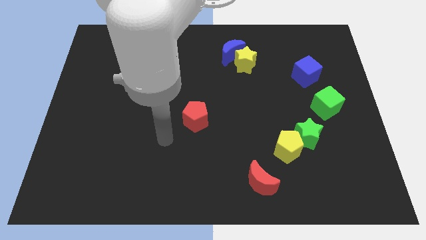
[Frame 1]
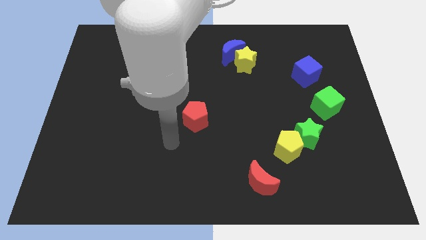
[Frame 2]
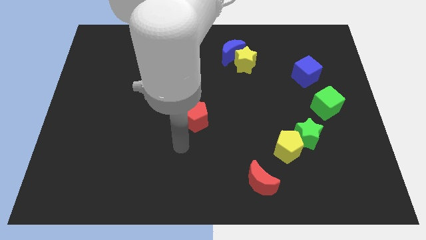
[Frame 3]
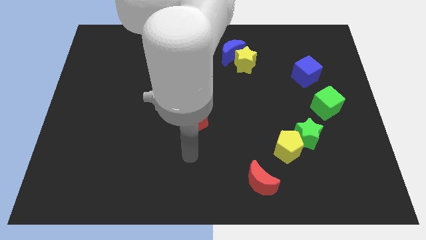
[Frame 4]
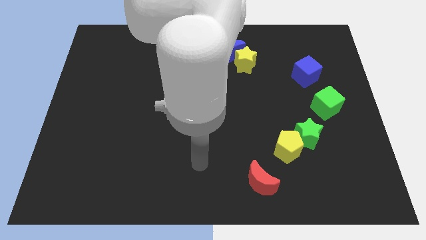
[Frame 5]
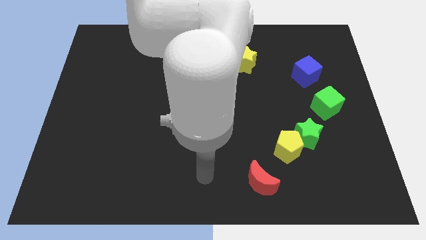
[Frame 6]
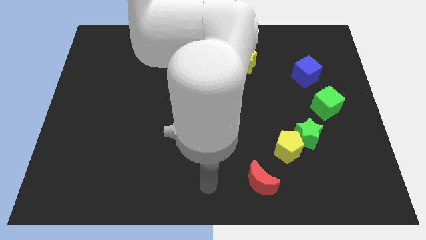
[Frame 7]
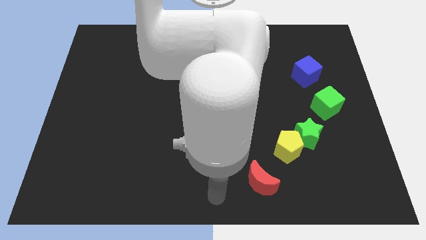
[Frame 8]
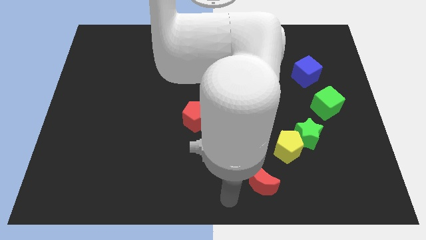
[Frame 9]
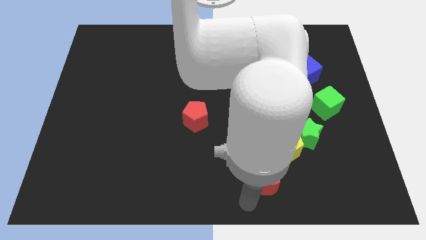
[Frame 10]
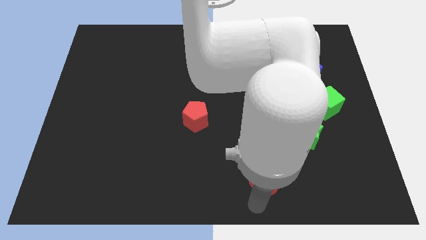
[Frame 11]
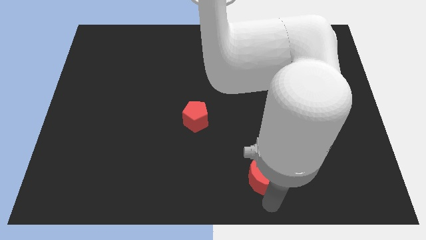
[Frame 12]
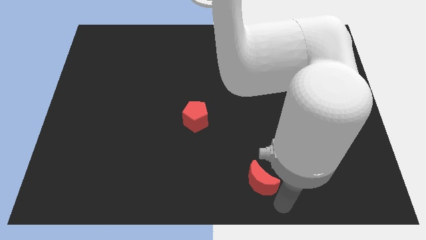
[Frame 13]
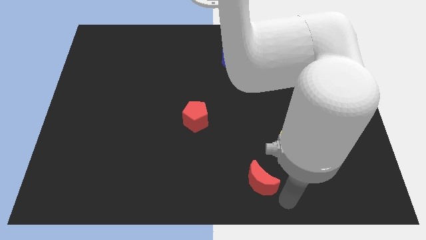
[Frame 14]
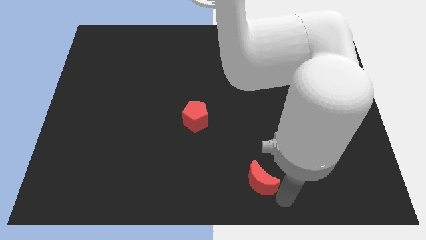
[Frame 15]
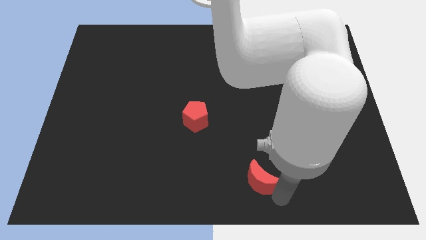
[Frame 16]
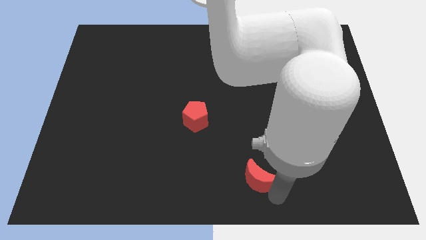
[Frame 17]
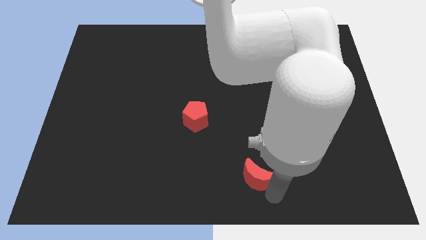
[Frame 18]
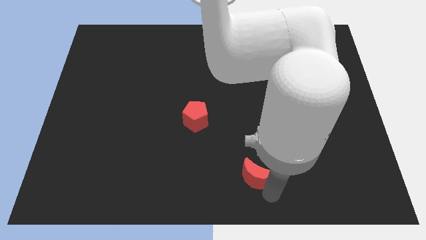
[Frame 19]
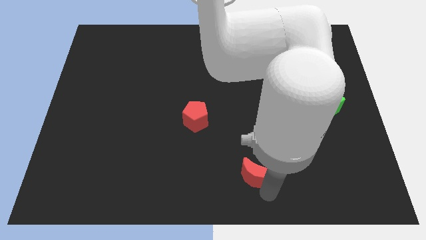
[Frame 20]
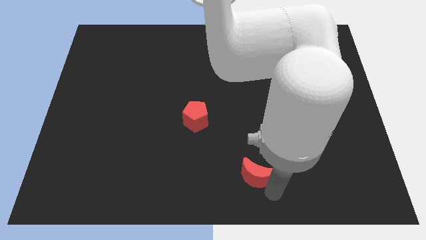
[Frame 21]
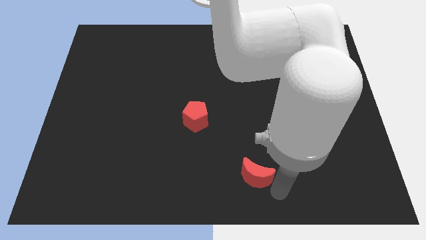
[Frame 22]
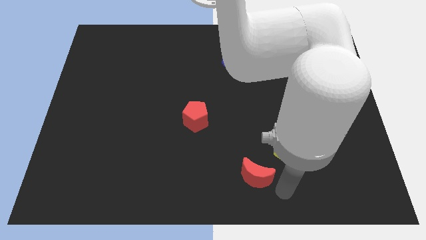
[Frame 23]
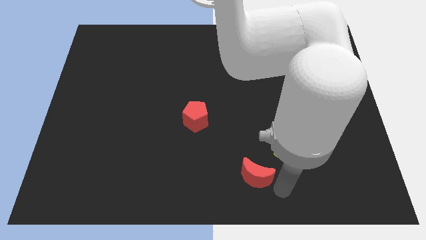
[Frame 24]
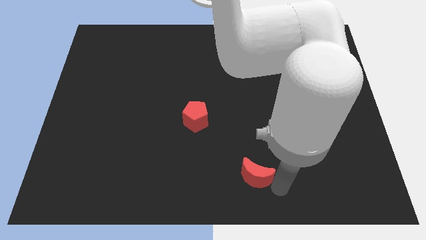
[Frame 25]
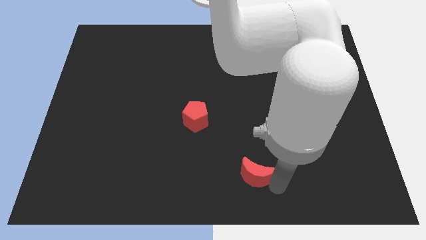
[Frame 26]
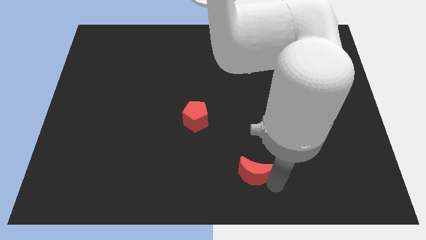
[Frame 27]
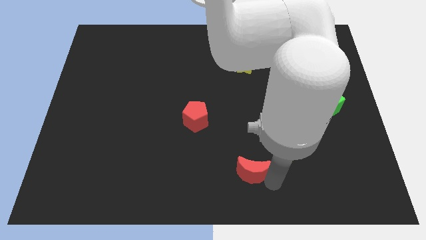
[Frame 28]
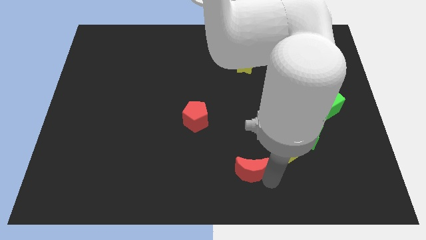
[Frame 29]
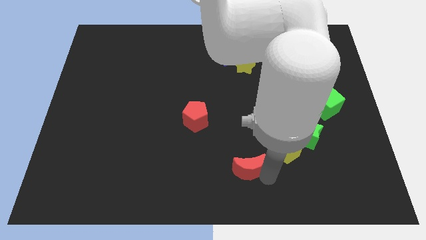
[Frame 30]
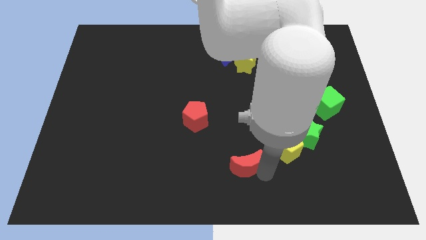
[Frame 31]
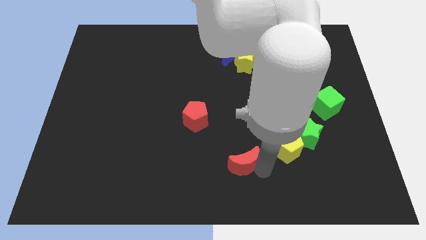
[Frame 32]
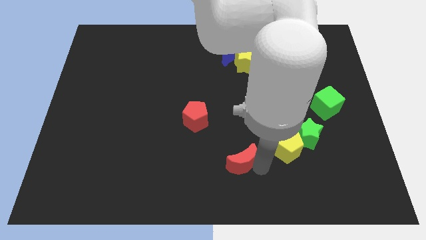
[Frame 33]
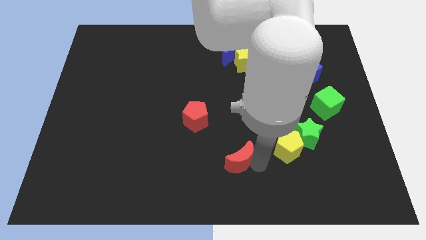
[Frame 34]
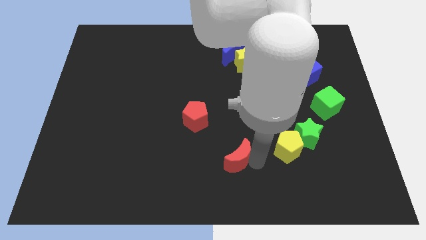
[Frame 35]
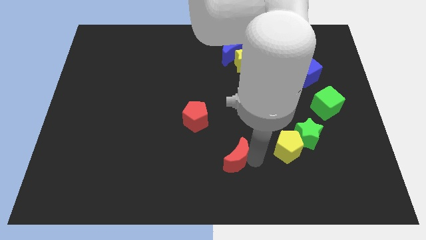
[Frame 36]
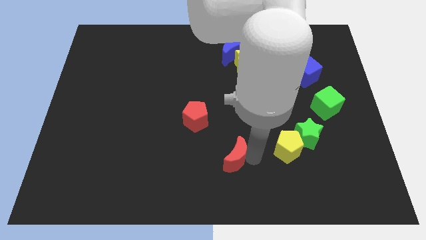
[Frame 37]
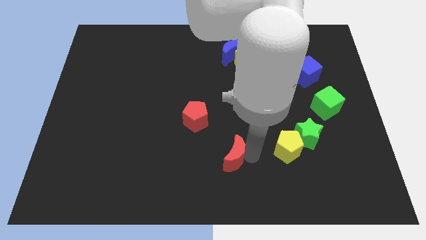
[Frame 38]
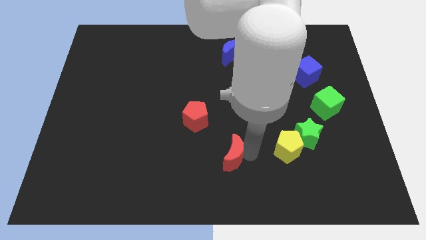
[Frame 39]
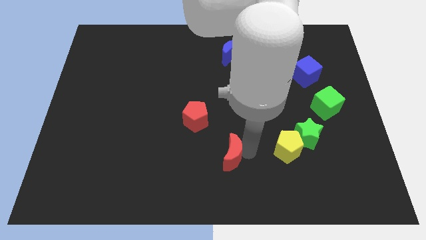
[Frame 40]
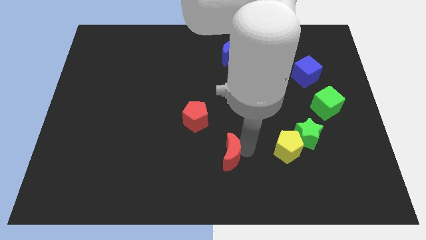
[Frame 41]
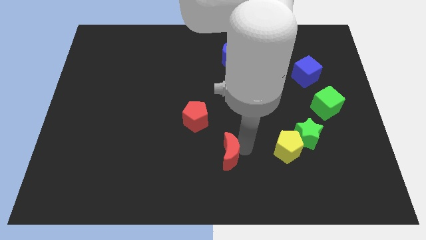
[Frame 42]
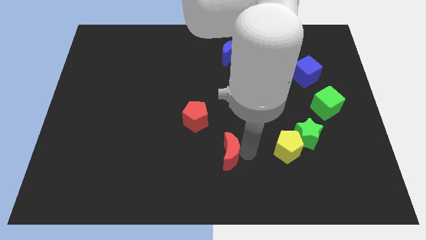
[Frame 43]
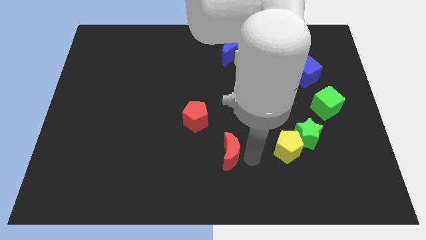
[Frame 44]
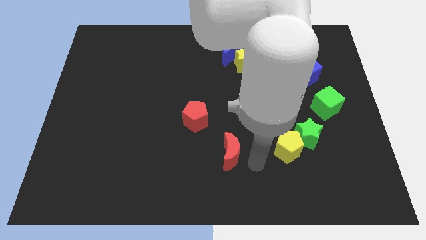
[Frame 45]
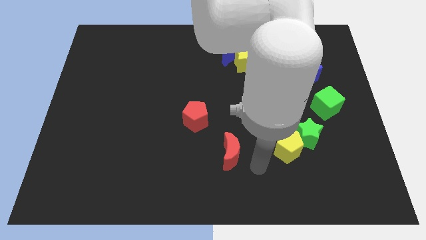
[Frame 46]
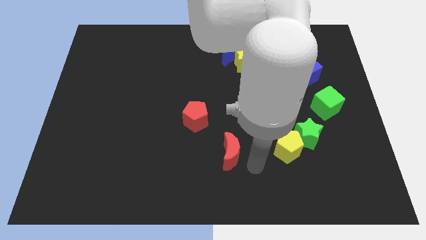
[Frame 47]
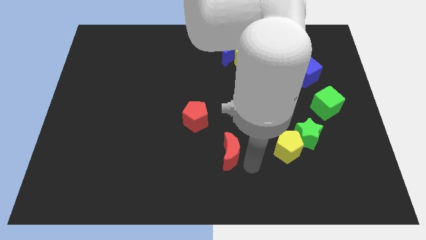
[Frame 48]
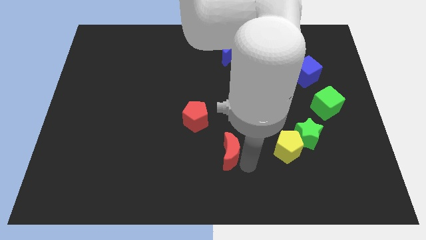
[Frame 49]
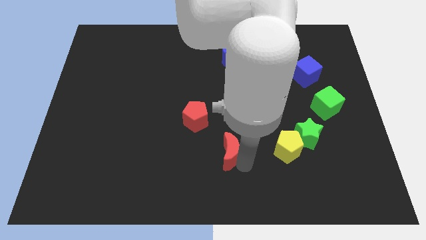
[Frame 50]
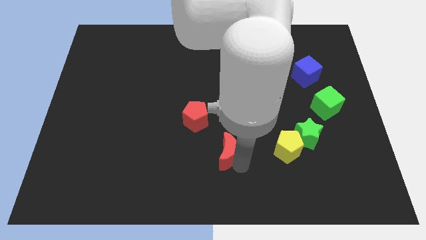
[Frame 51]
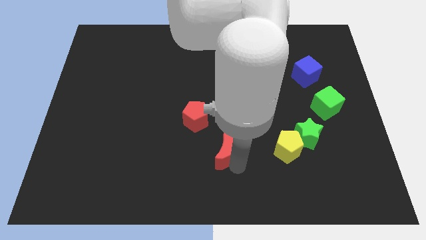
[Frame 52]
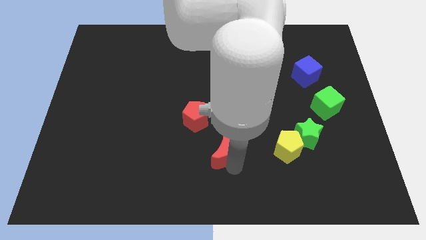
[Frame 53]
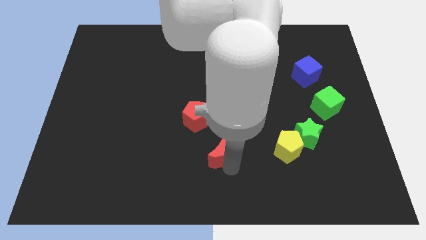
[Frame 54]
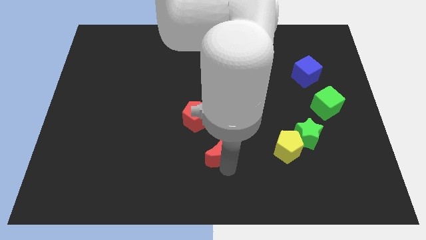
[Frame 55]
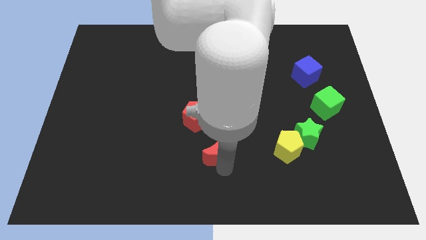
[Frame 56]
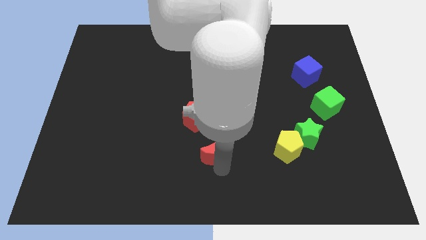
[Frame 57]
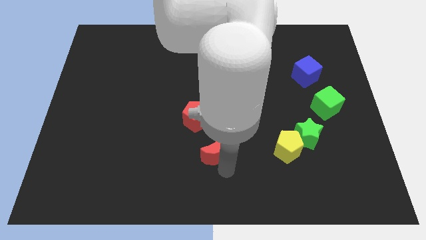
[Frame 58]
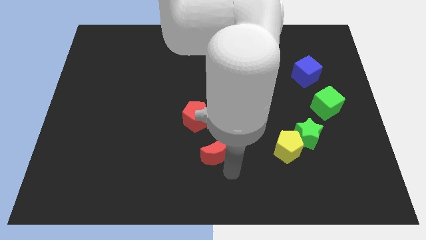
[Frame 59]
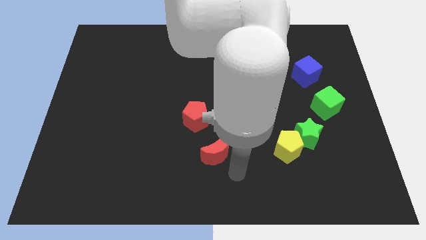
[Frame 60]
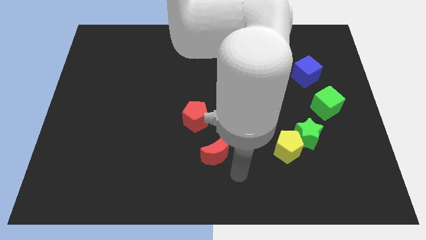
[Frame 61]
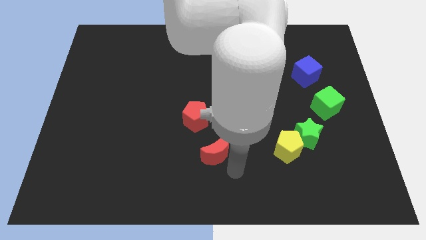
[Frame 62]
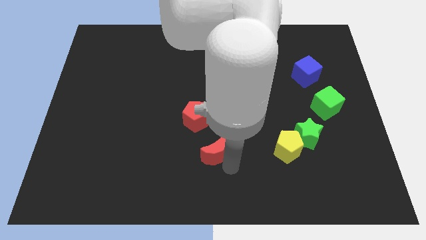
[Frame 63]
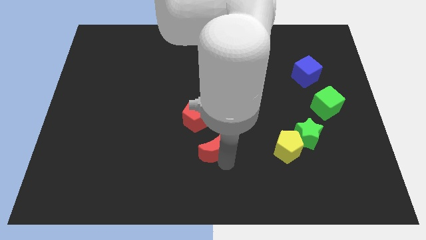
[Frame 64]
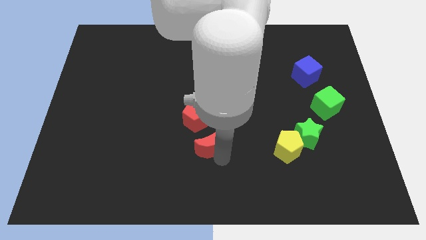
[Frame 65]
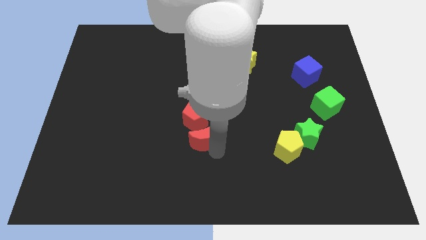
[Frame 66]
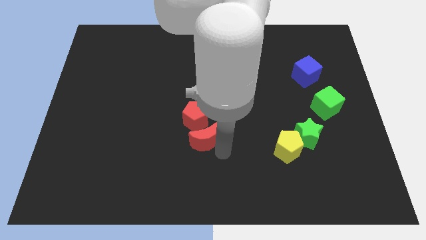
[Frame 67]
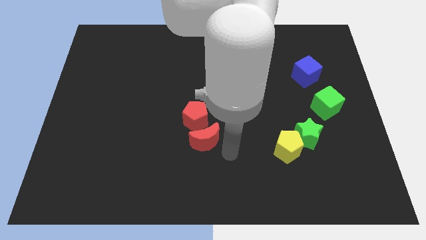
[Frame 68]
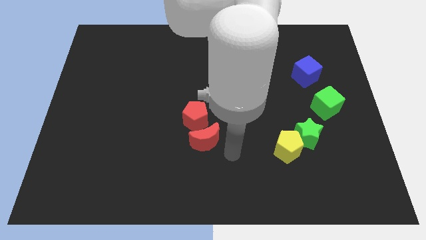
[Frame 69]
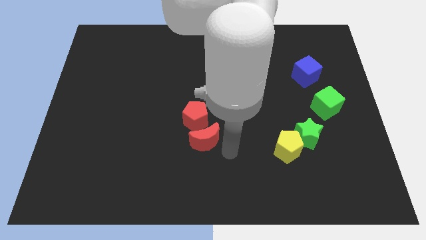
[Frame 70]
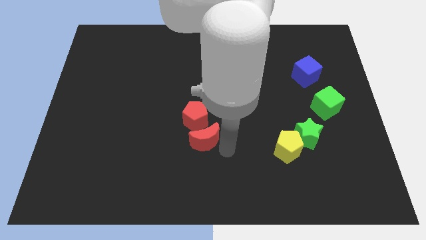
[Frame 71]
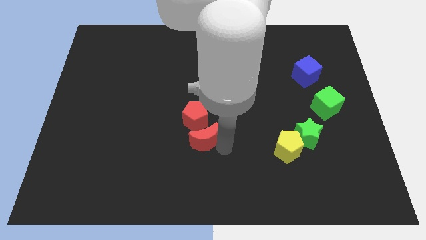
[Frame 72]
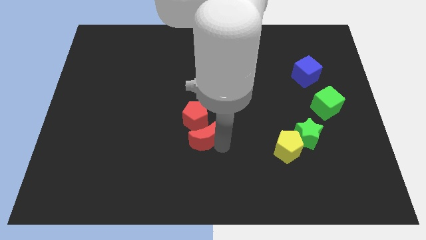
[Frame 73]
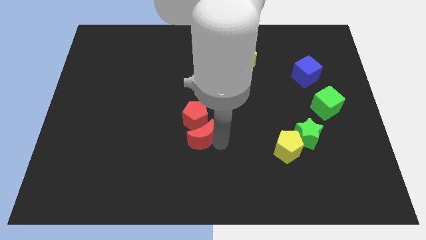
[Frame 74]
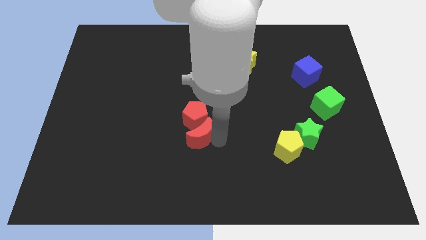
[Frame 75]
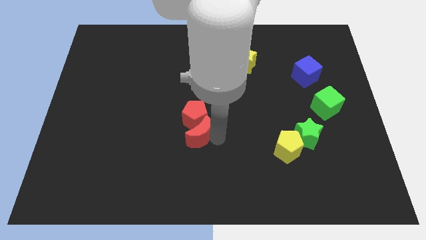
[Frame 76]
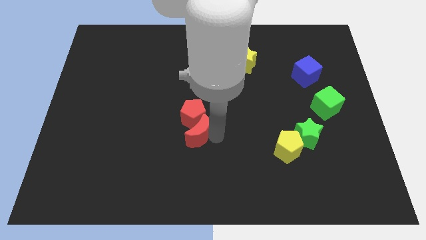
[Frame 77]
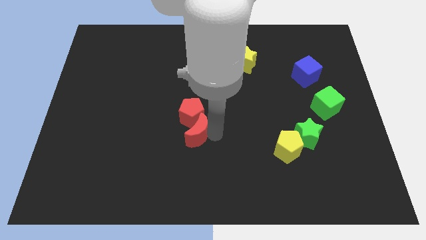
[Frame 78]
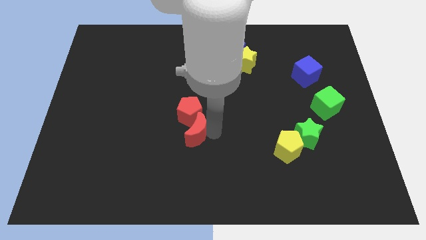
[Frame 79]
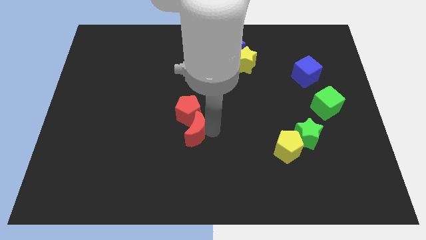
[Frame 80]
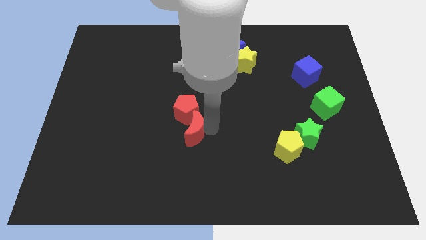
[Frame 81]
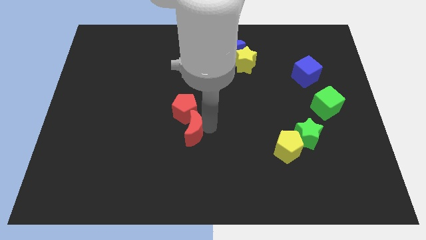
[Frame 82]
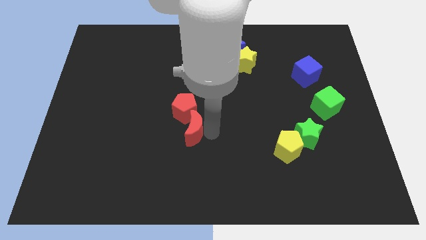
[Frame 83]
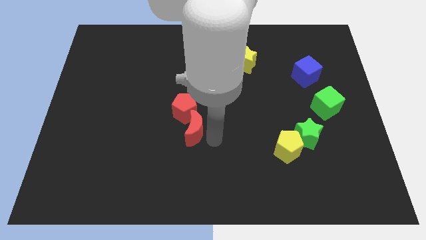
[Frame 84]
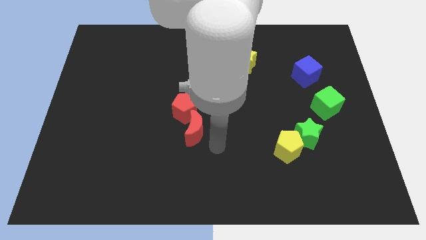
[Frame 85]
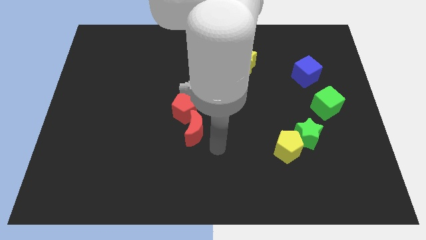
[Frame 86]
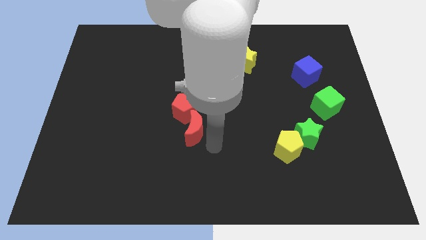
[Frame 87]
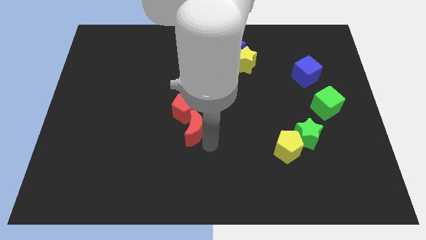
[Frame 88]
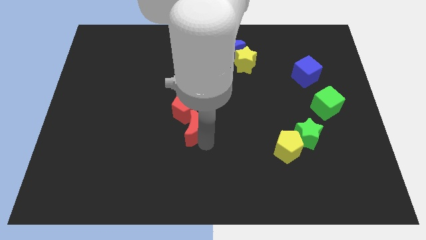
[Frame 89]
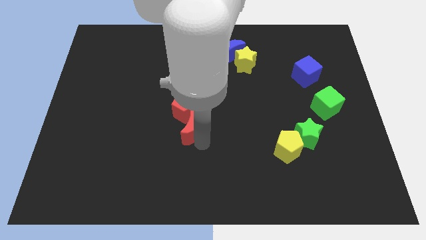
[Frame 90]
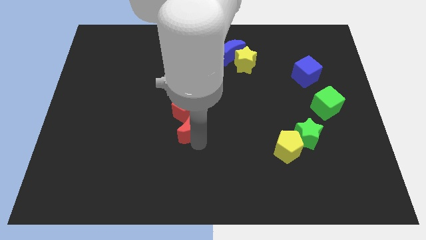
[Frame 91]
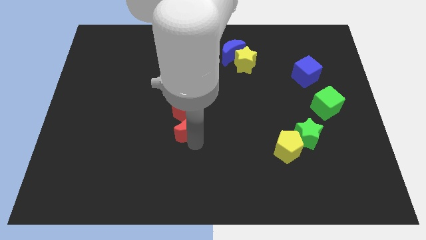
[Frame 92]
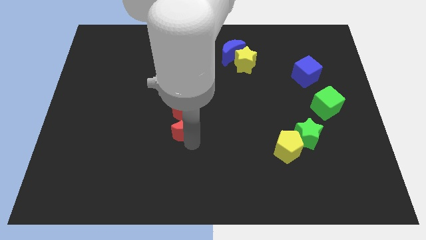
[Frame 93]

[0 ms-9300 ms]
push the red moon upwards and left diagonally
